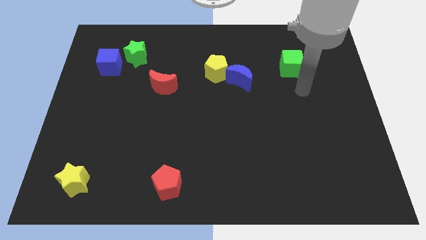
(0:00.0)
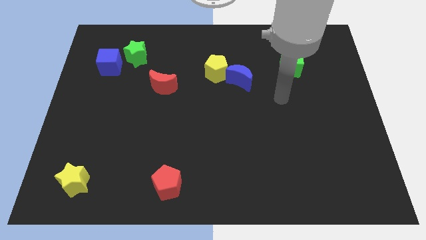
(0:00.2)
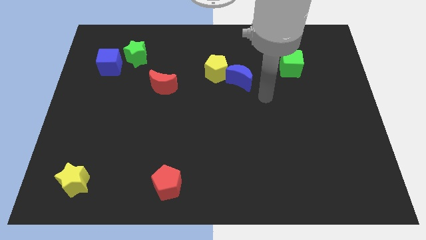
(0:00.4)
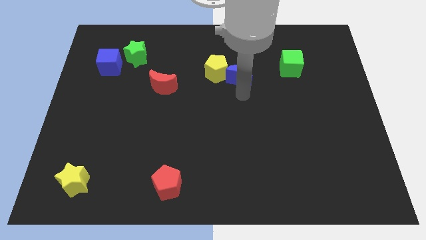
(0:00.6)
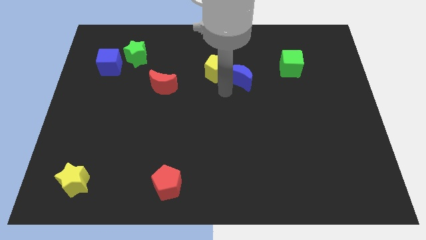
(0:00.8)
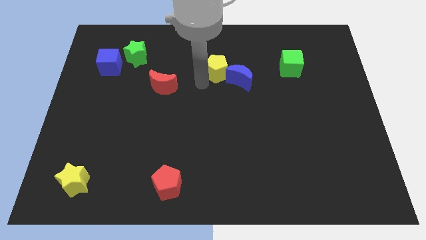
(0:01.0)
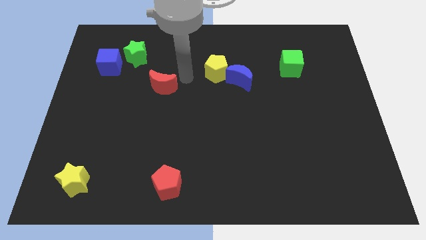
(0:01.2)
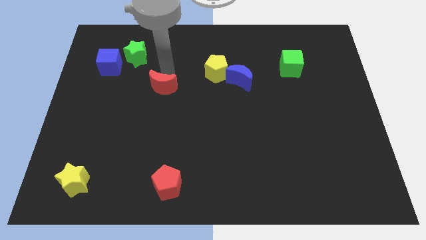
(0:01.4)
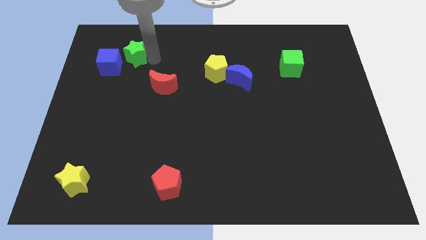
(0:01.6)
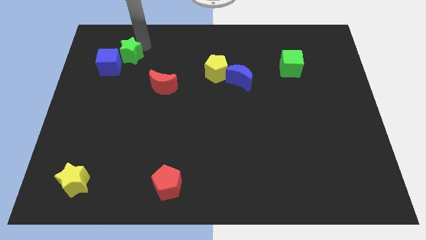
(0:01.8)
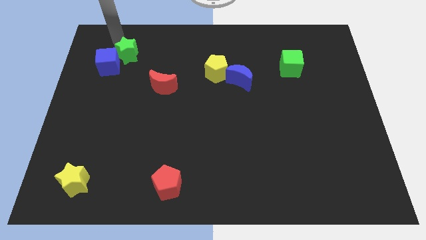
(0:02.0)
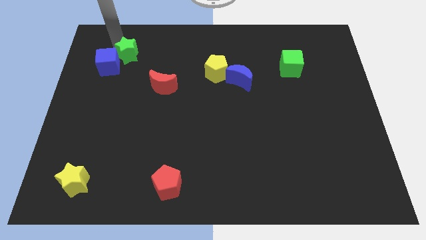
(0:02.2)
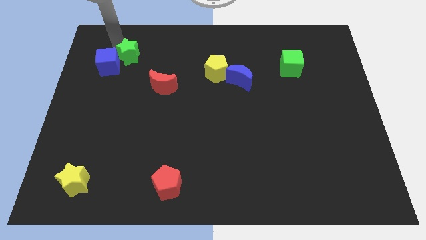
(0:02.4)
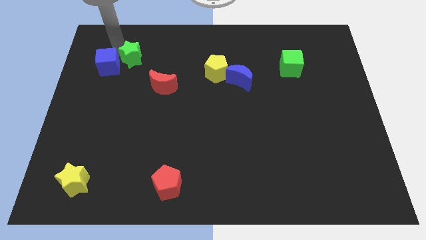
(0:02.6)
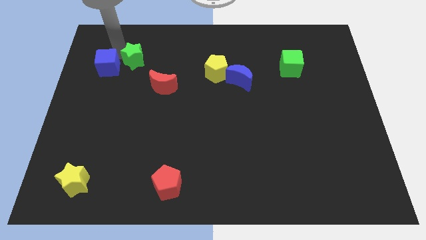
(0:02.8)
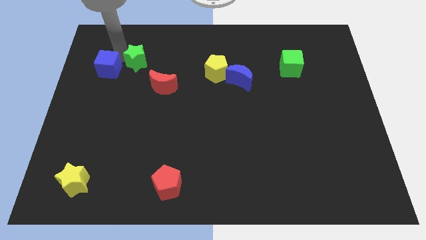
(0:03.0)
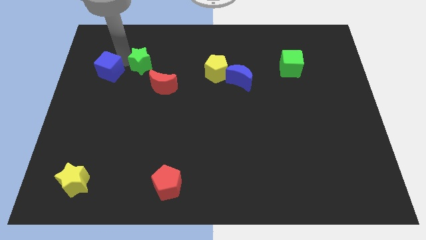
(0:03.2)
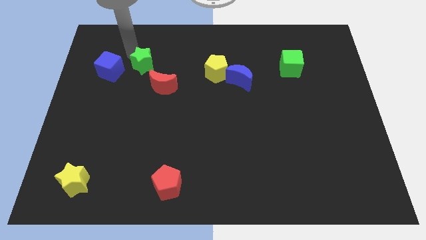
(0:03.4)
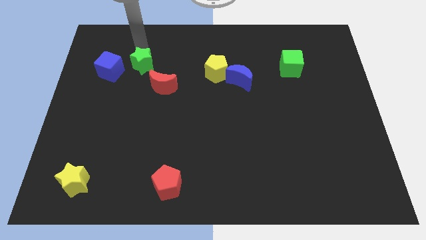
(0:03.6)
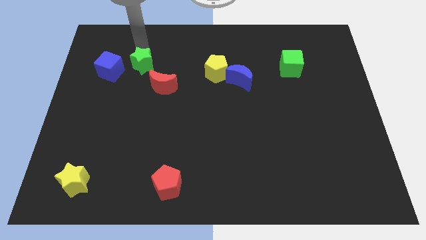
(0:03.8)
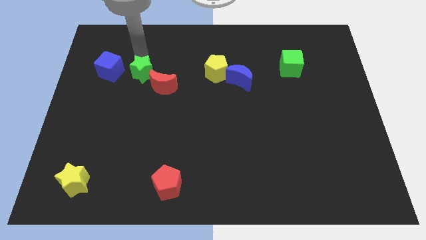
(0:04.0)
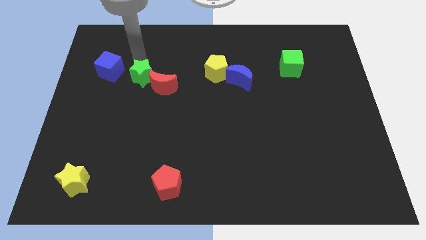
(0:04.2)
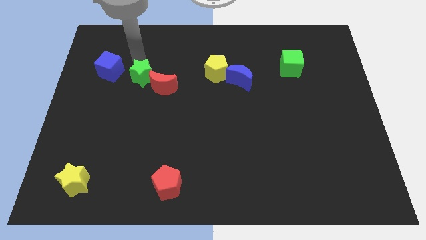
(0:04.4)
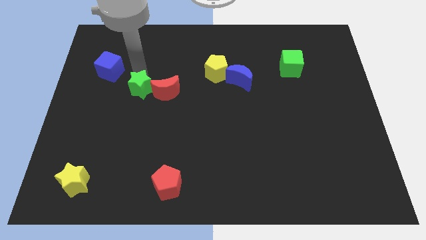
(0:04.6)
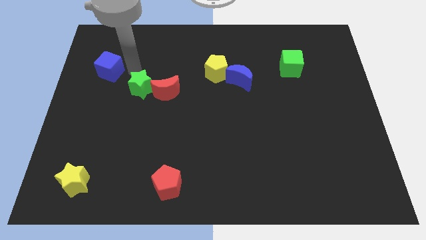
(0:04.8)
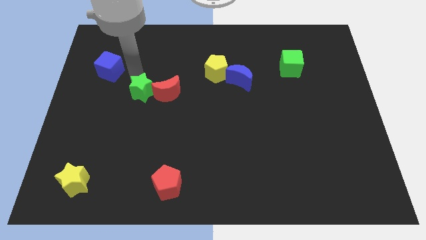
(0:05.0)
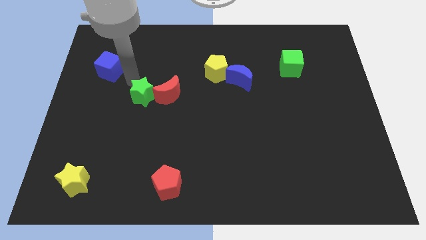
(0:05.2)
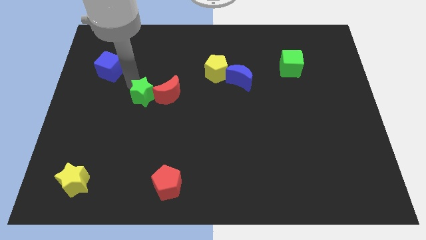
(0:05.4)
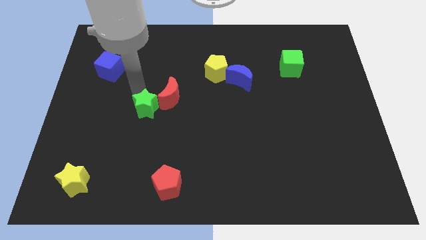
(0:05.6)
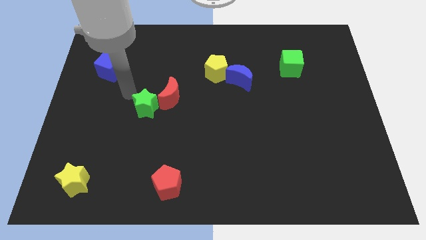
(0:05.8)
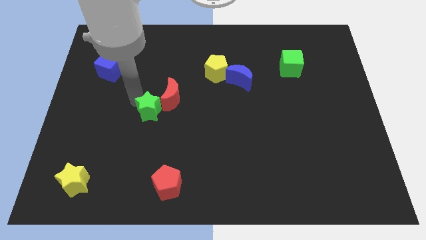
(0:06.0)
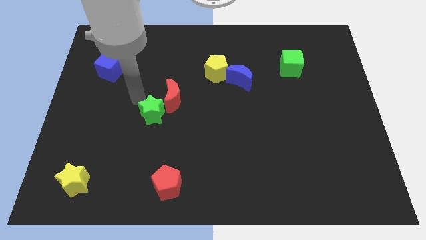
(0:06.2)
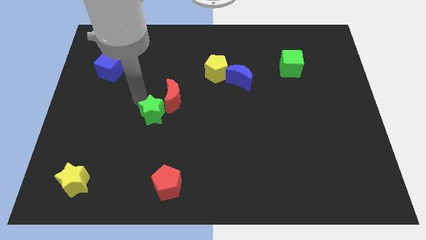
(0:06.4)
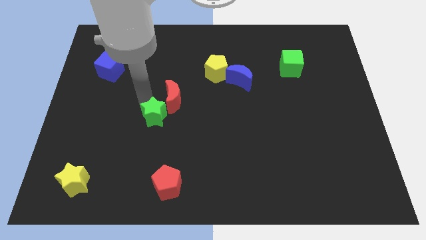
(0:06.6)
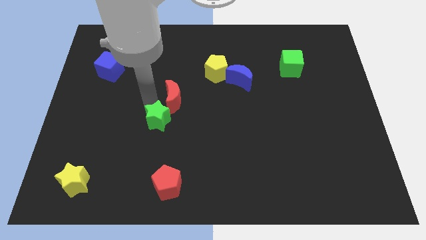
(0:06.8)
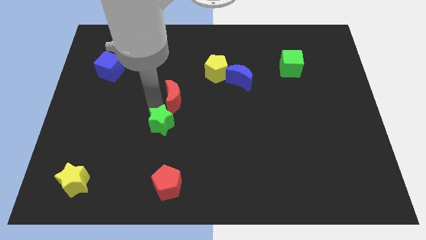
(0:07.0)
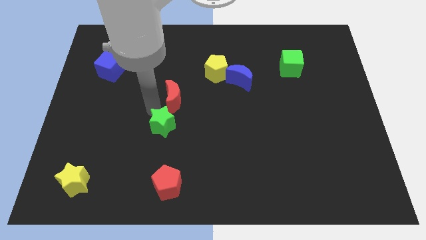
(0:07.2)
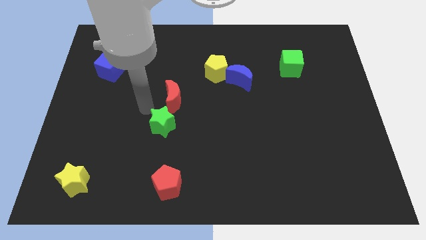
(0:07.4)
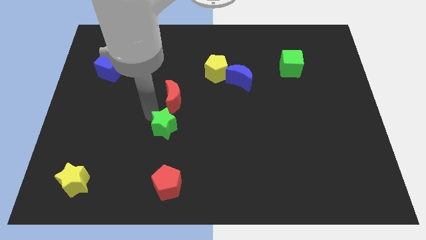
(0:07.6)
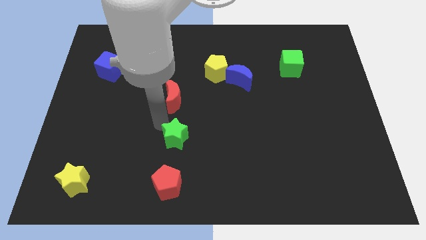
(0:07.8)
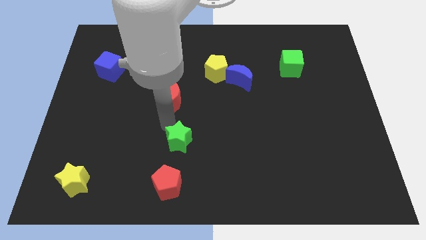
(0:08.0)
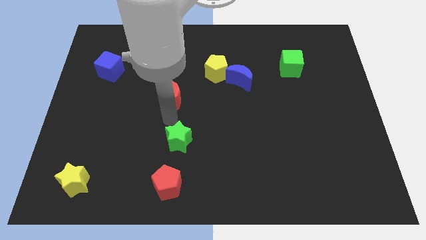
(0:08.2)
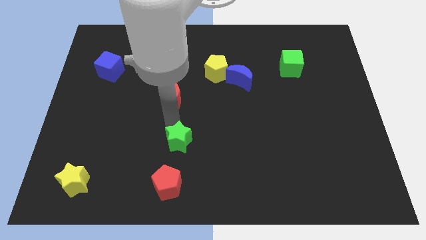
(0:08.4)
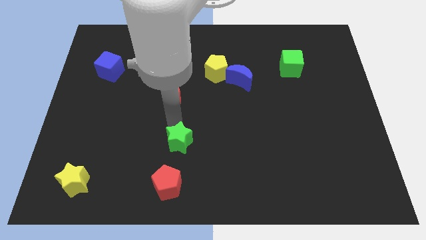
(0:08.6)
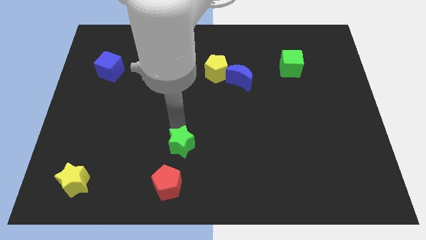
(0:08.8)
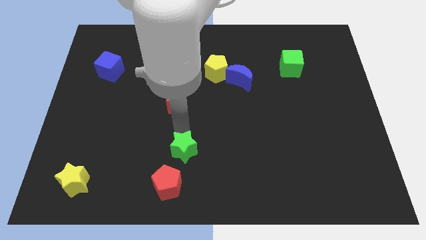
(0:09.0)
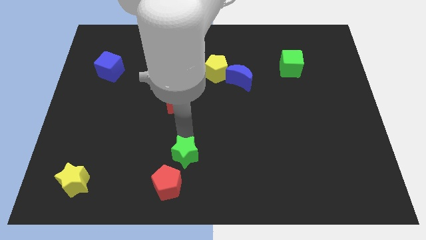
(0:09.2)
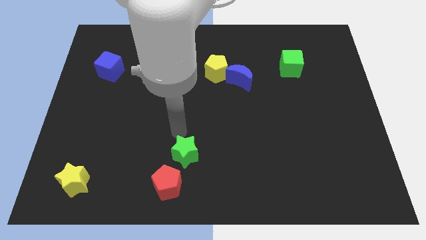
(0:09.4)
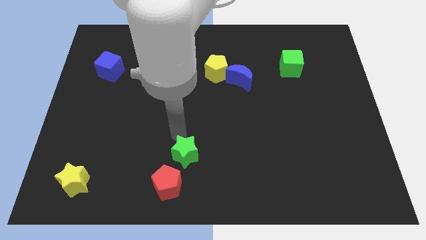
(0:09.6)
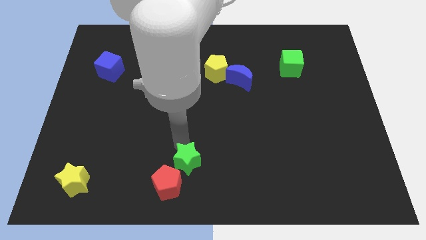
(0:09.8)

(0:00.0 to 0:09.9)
slide the green star to the bottom side

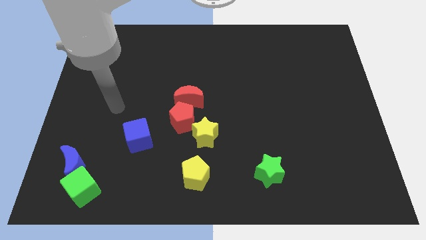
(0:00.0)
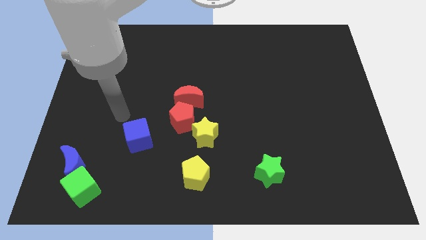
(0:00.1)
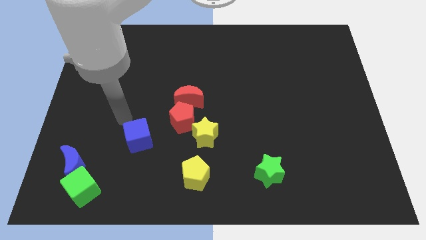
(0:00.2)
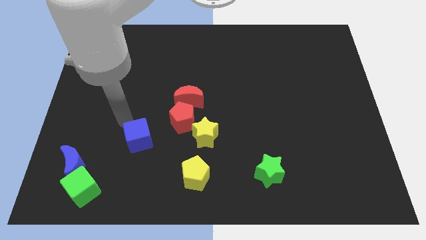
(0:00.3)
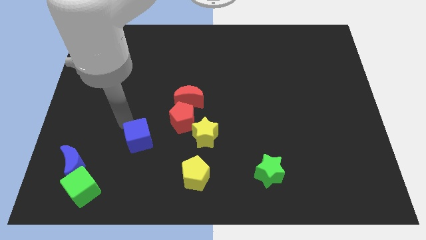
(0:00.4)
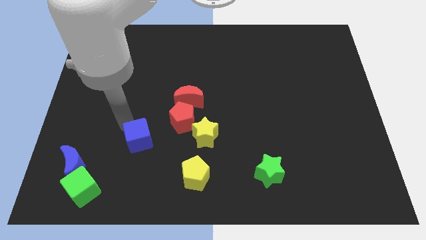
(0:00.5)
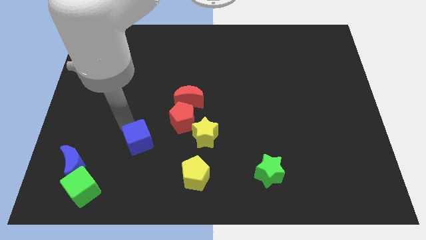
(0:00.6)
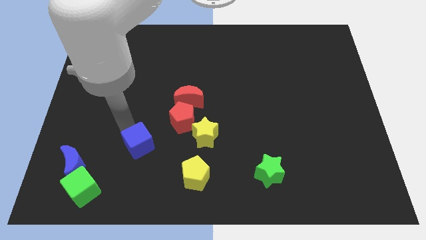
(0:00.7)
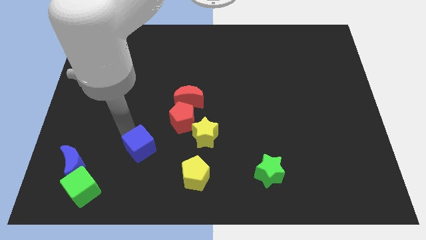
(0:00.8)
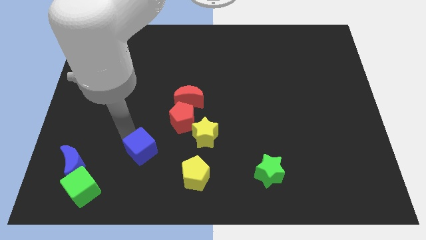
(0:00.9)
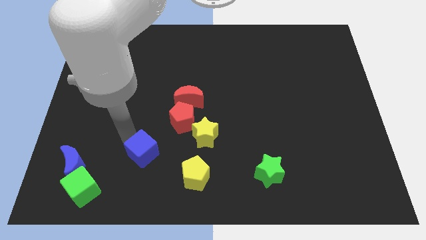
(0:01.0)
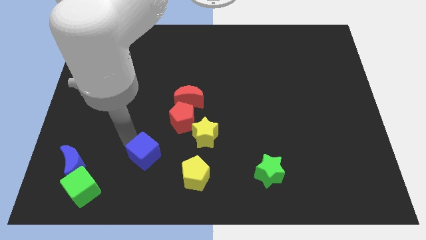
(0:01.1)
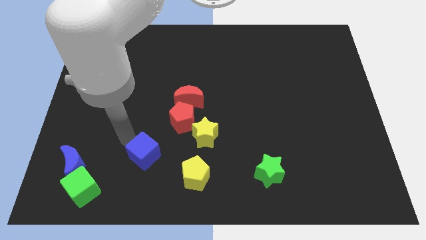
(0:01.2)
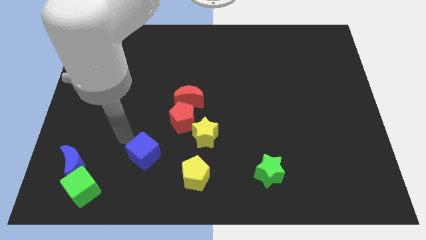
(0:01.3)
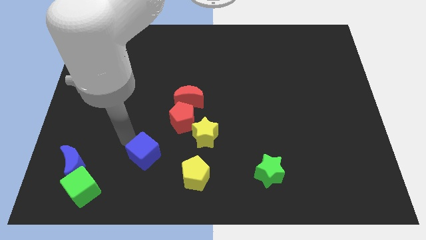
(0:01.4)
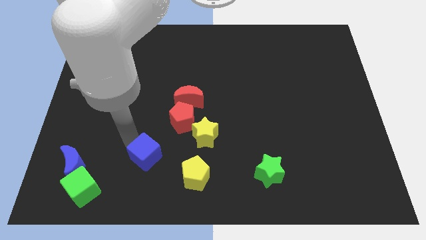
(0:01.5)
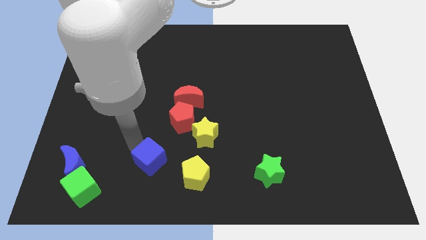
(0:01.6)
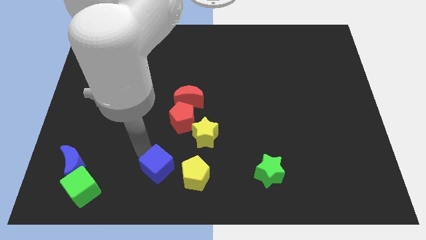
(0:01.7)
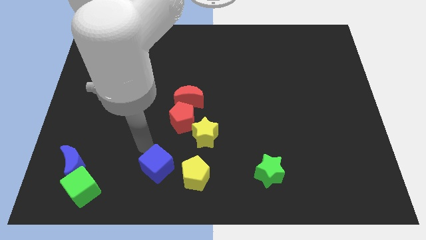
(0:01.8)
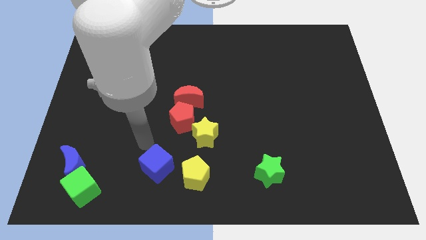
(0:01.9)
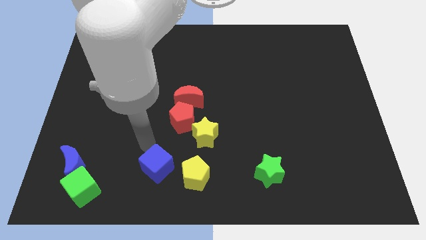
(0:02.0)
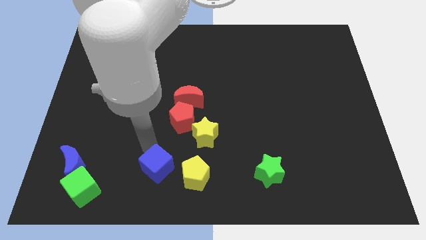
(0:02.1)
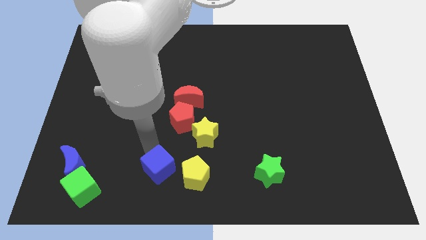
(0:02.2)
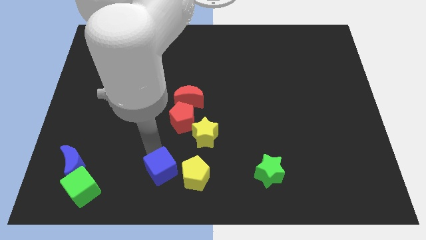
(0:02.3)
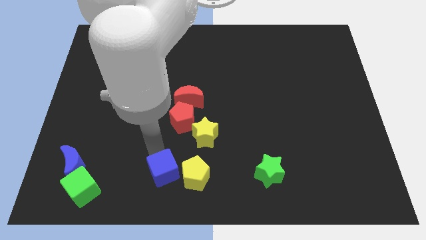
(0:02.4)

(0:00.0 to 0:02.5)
push the blue cube to the bottom
